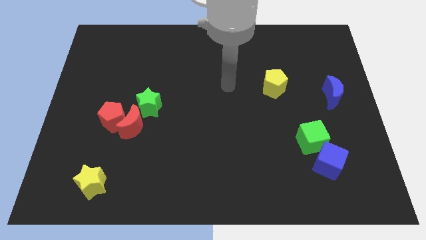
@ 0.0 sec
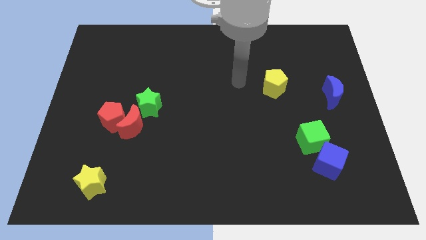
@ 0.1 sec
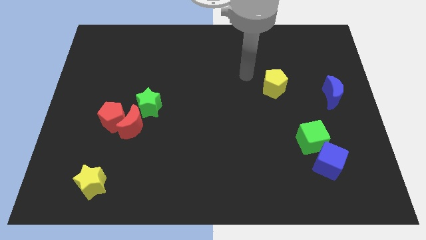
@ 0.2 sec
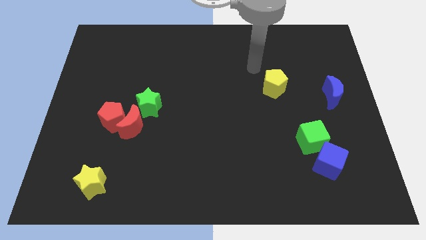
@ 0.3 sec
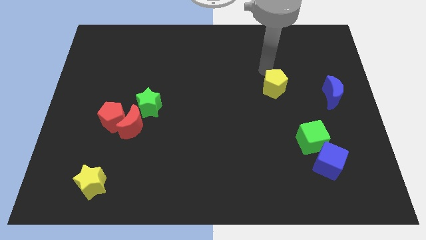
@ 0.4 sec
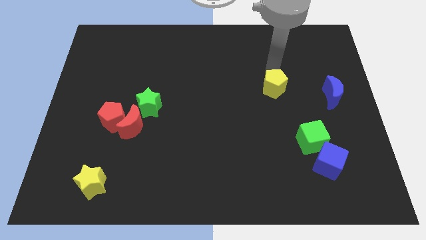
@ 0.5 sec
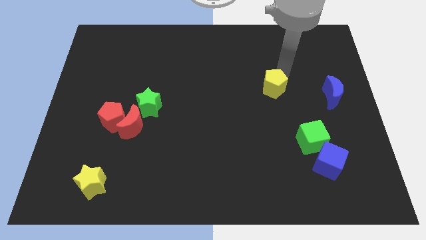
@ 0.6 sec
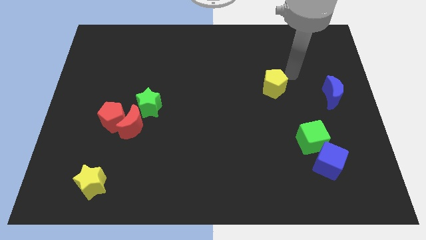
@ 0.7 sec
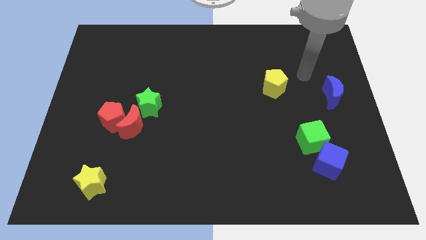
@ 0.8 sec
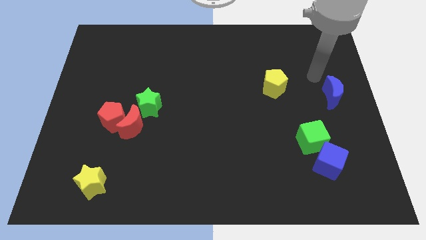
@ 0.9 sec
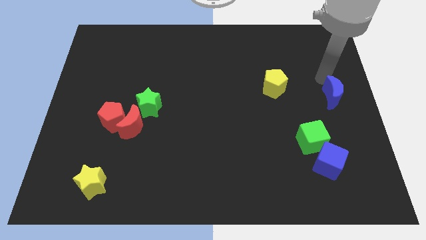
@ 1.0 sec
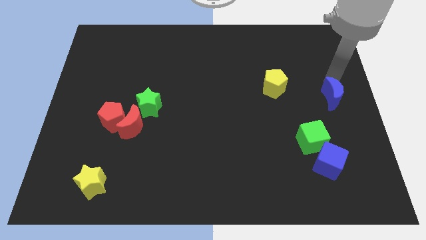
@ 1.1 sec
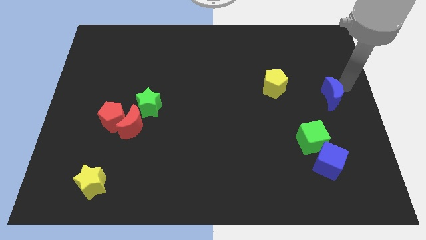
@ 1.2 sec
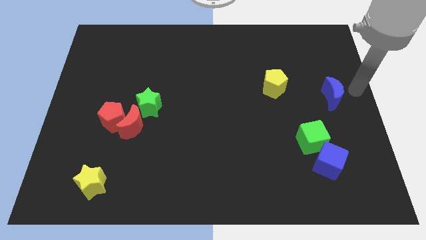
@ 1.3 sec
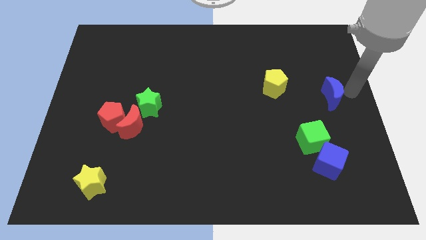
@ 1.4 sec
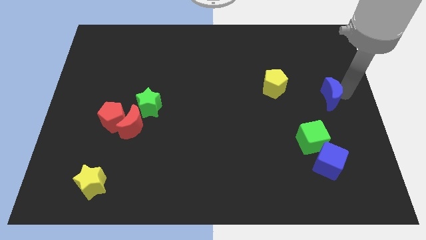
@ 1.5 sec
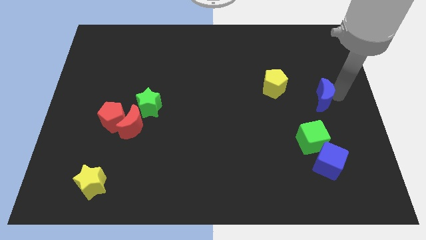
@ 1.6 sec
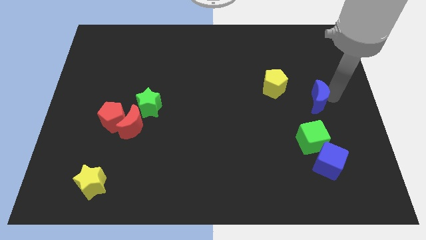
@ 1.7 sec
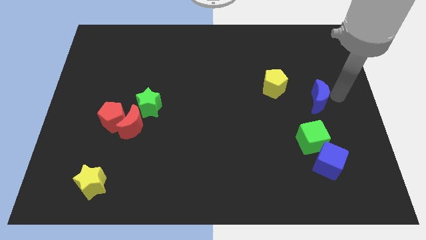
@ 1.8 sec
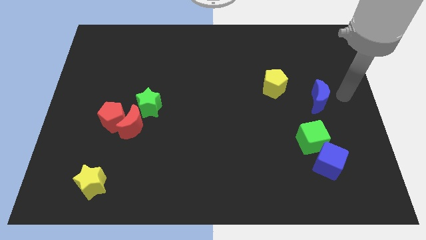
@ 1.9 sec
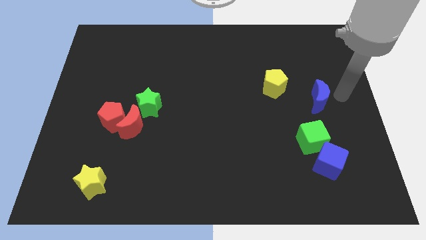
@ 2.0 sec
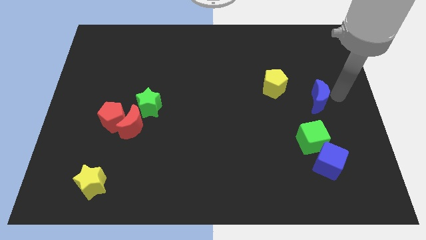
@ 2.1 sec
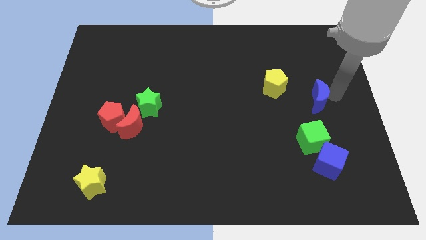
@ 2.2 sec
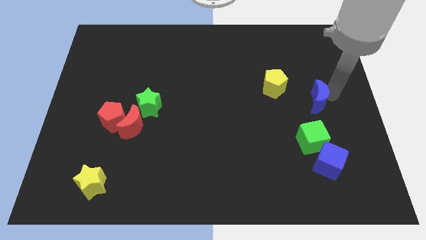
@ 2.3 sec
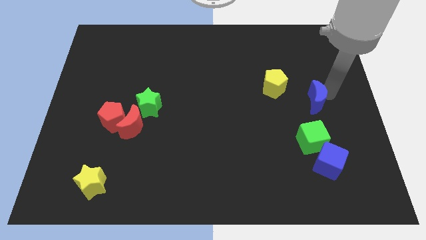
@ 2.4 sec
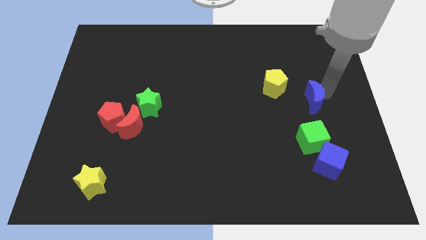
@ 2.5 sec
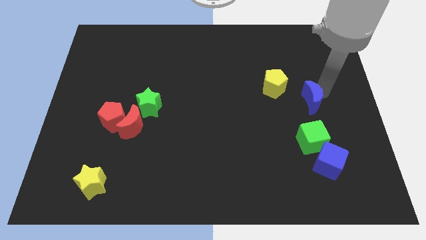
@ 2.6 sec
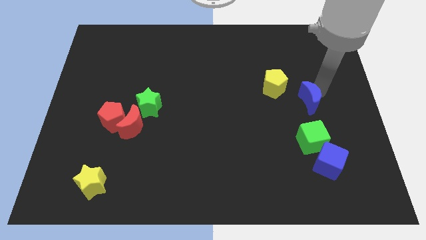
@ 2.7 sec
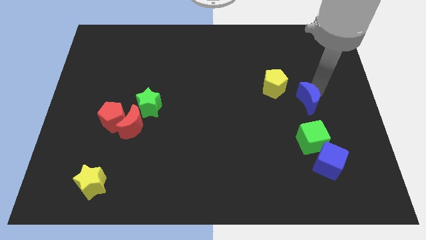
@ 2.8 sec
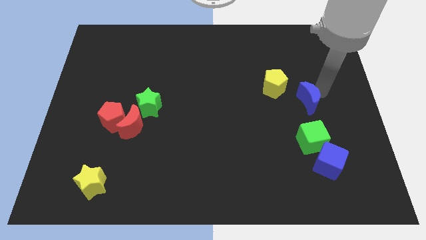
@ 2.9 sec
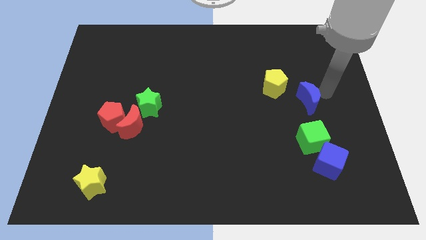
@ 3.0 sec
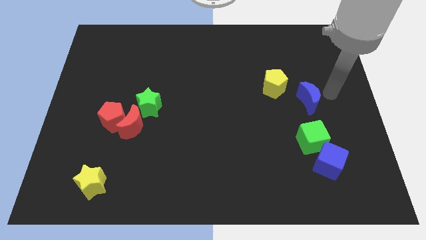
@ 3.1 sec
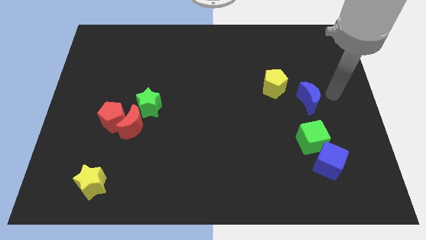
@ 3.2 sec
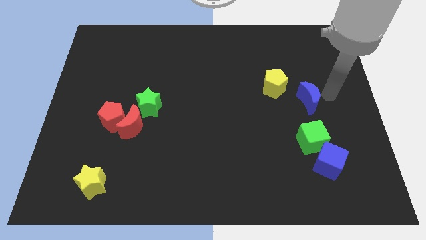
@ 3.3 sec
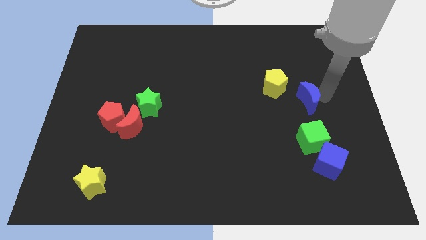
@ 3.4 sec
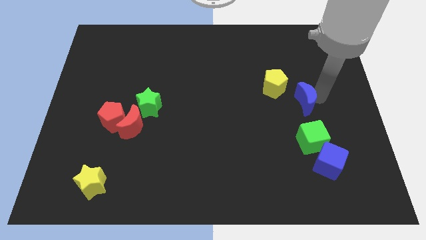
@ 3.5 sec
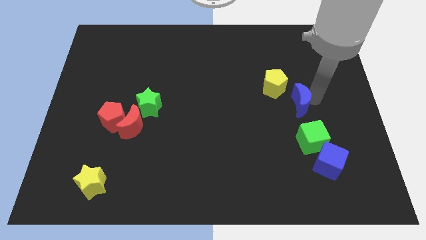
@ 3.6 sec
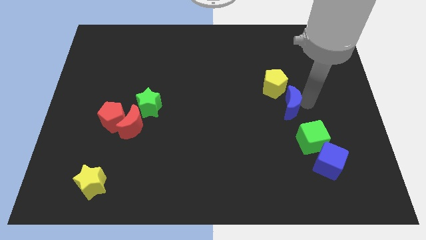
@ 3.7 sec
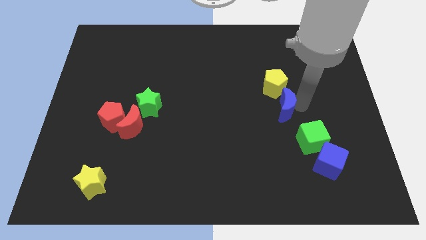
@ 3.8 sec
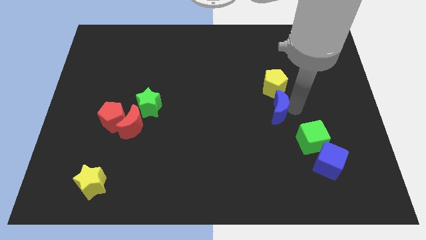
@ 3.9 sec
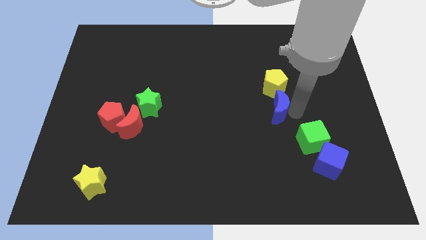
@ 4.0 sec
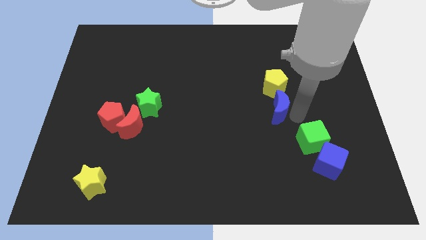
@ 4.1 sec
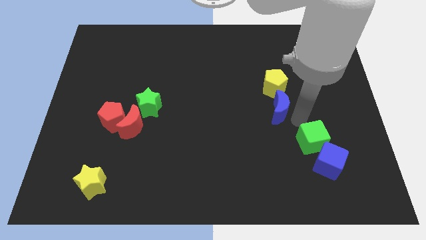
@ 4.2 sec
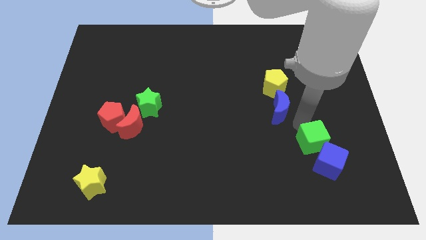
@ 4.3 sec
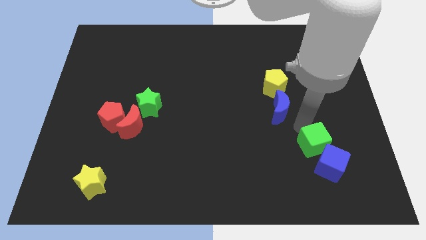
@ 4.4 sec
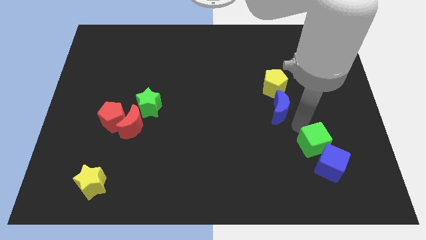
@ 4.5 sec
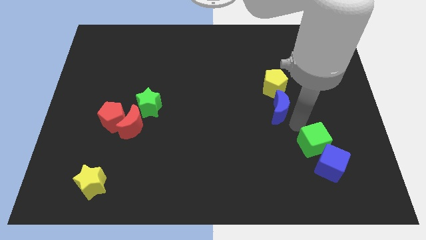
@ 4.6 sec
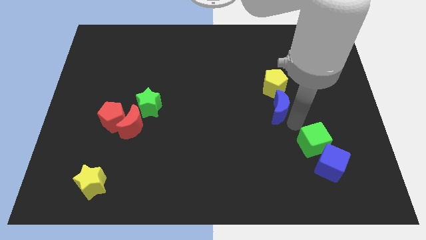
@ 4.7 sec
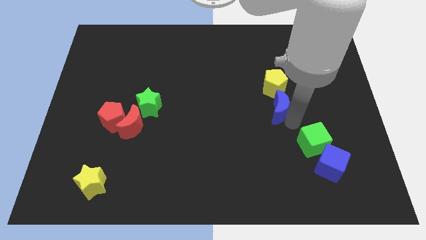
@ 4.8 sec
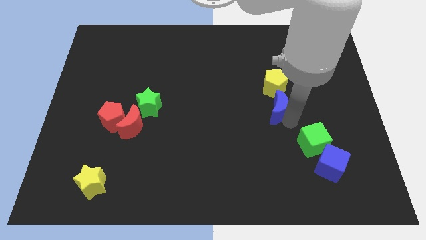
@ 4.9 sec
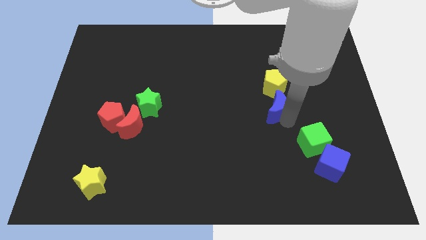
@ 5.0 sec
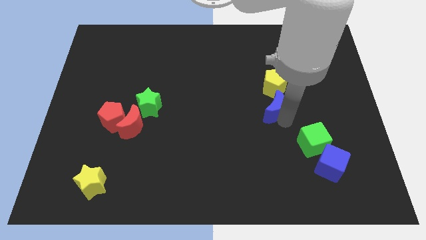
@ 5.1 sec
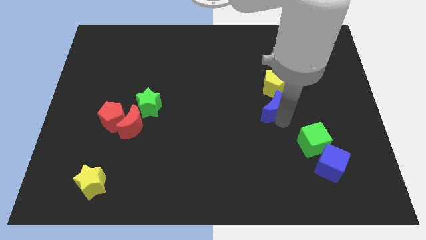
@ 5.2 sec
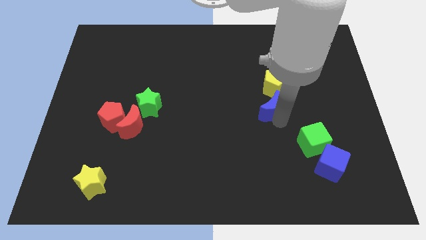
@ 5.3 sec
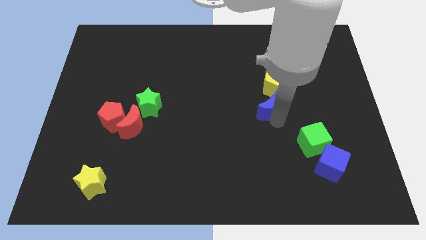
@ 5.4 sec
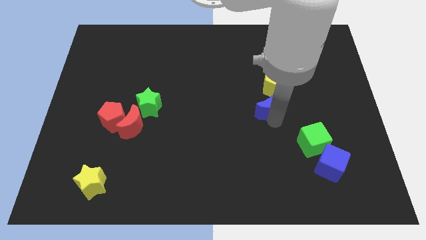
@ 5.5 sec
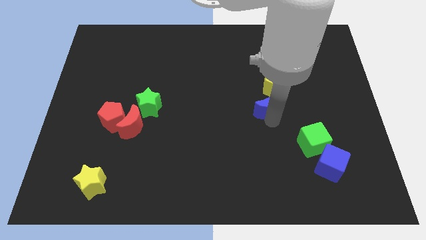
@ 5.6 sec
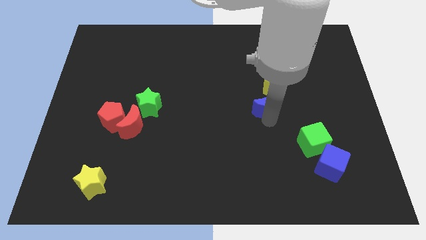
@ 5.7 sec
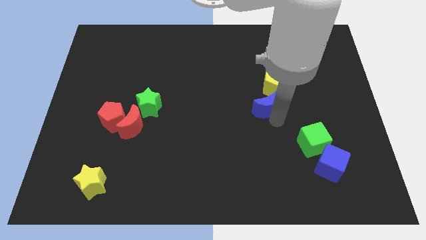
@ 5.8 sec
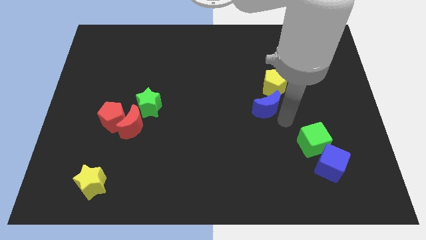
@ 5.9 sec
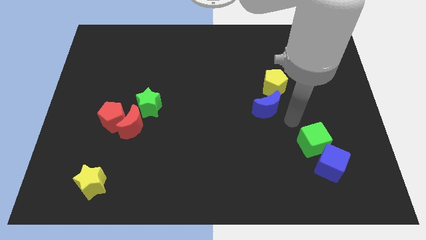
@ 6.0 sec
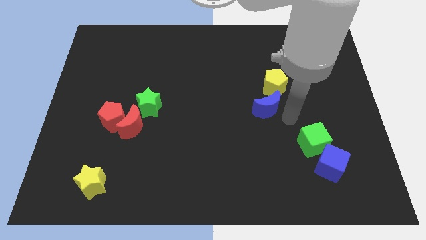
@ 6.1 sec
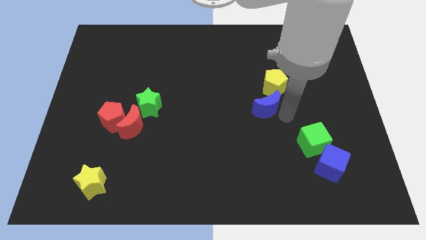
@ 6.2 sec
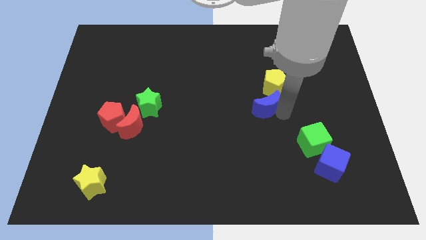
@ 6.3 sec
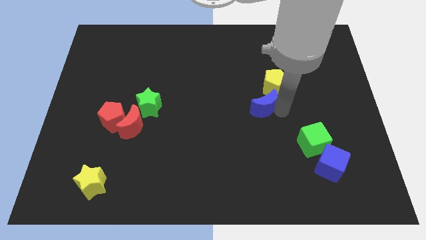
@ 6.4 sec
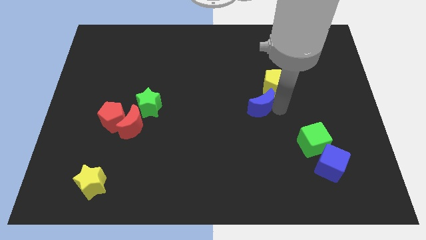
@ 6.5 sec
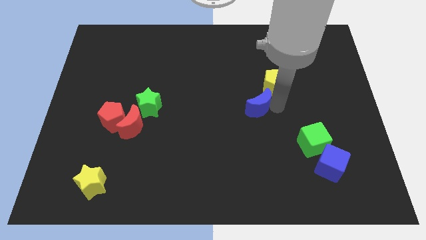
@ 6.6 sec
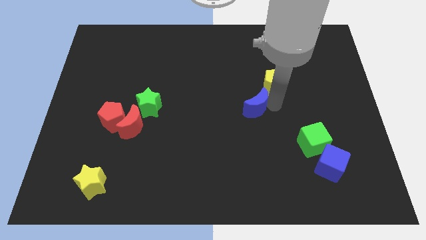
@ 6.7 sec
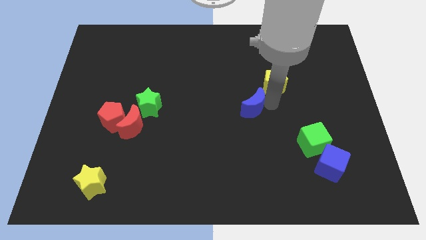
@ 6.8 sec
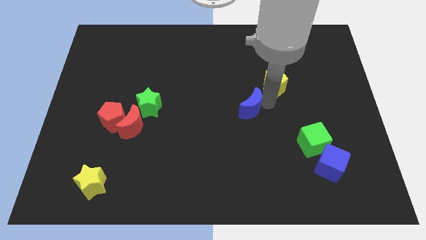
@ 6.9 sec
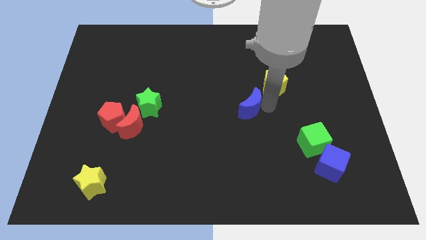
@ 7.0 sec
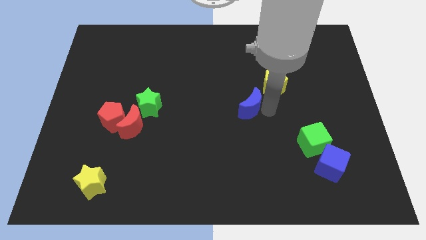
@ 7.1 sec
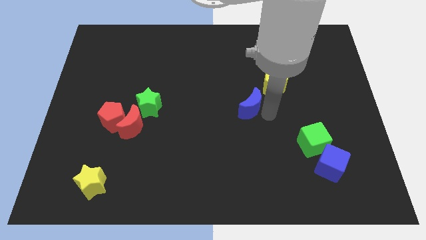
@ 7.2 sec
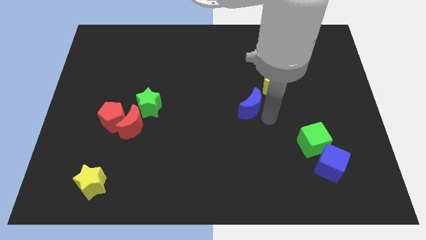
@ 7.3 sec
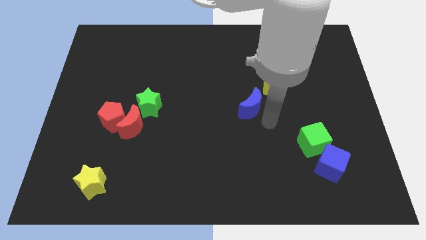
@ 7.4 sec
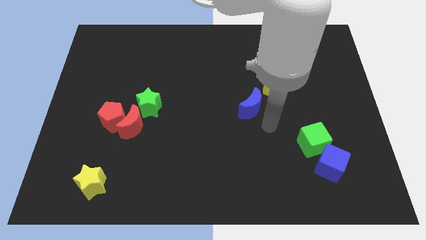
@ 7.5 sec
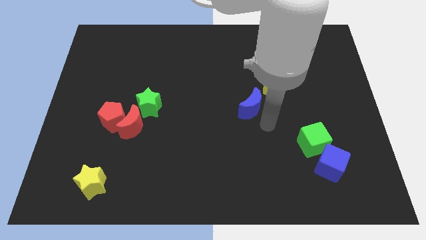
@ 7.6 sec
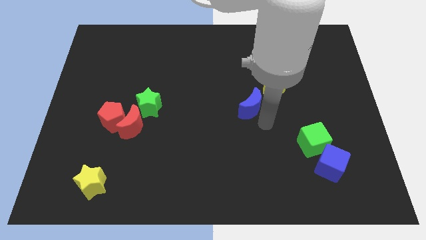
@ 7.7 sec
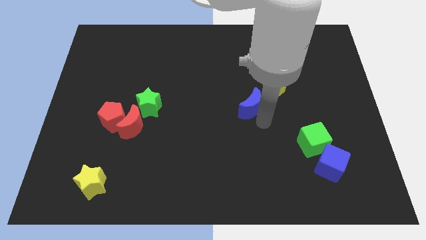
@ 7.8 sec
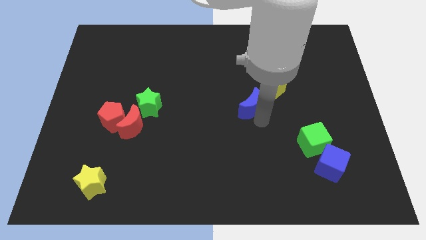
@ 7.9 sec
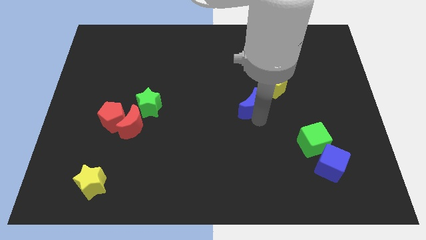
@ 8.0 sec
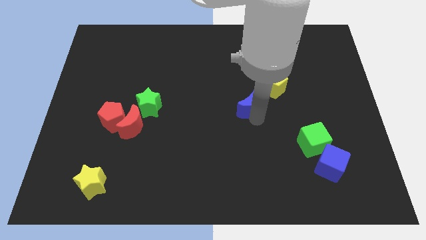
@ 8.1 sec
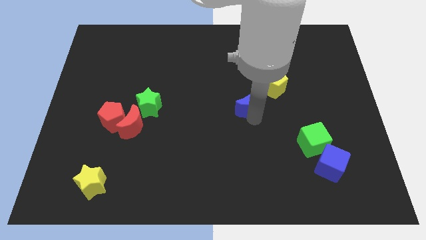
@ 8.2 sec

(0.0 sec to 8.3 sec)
move the blue moon left
